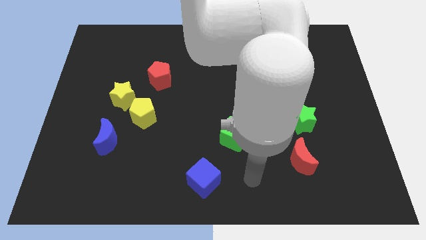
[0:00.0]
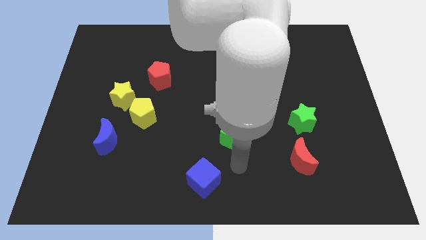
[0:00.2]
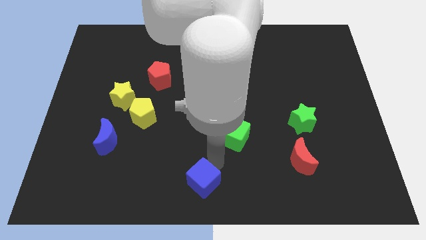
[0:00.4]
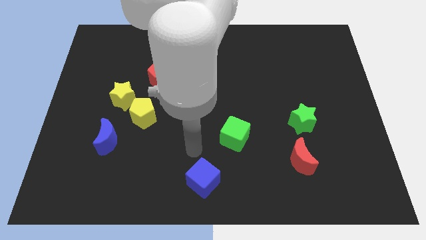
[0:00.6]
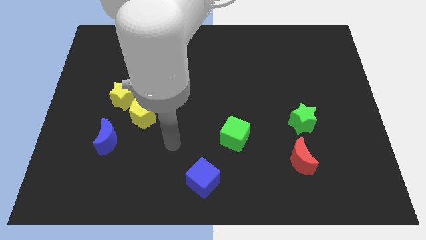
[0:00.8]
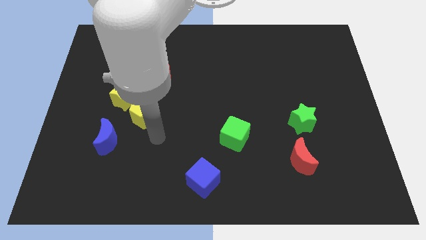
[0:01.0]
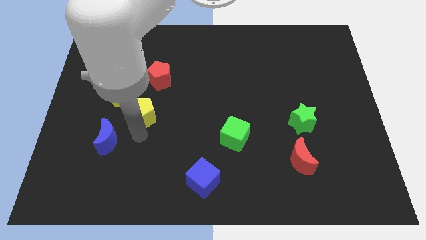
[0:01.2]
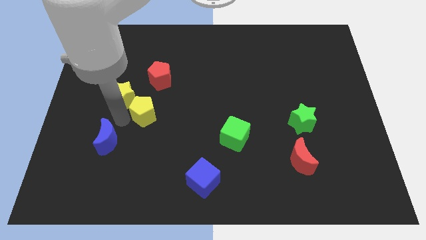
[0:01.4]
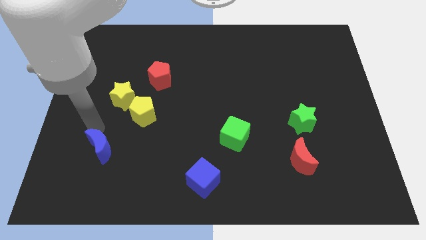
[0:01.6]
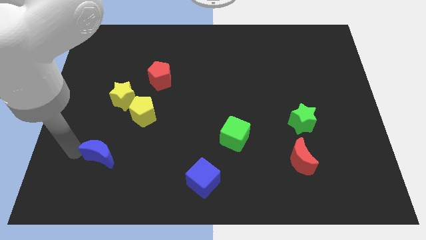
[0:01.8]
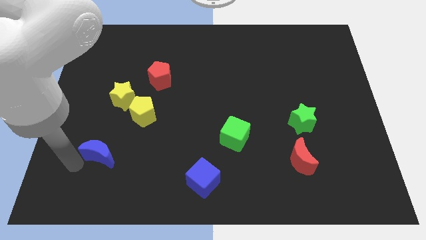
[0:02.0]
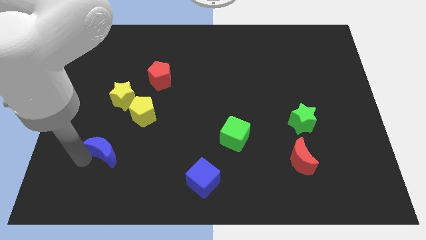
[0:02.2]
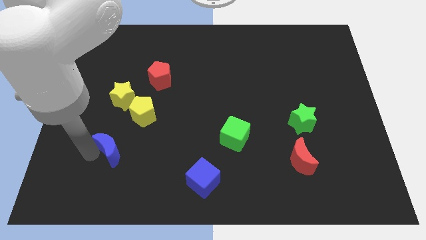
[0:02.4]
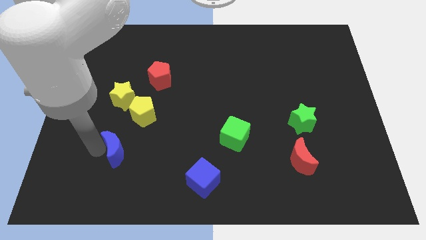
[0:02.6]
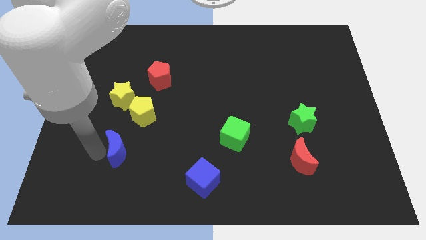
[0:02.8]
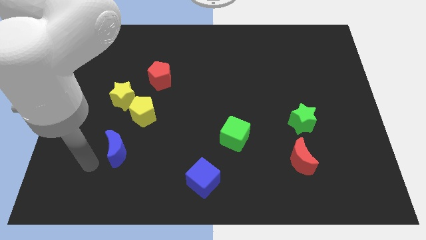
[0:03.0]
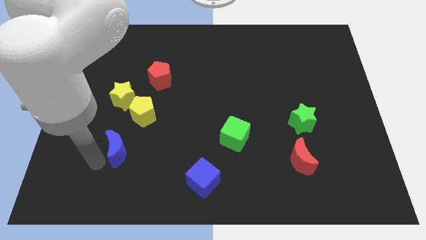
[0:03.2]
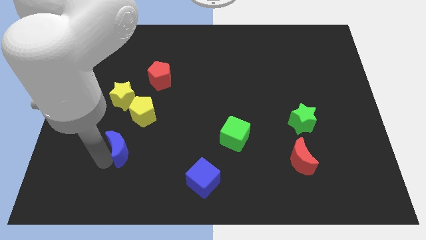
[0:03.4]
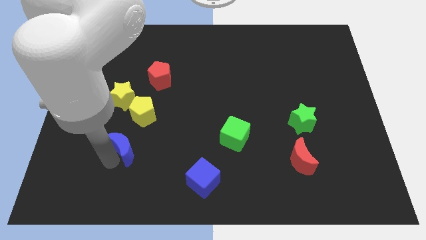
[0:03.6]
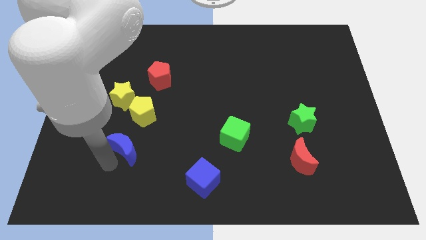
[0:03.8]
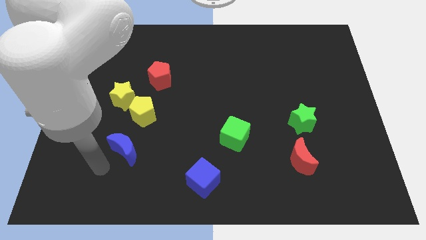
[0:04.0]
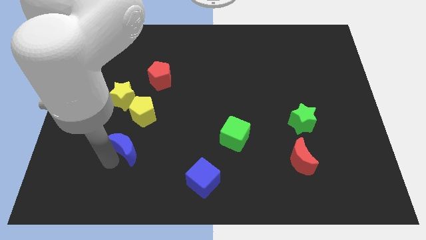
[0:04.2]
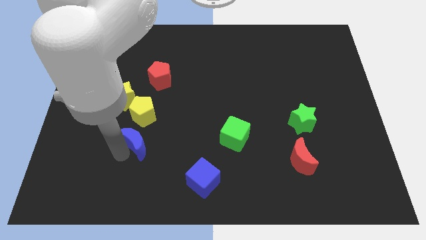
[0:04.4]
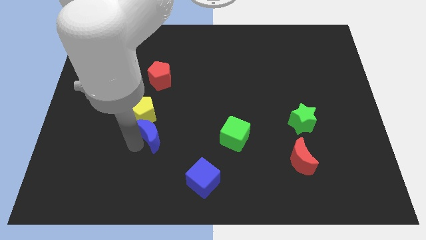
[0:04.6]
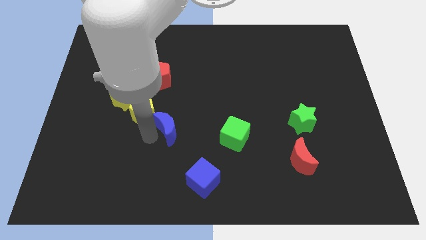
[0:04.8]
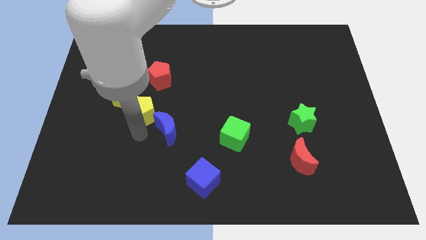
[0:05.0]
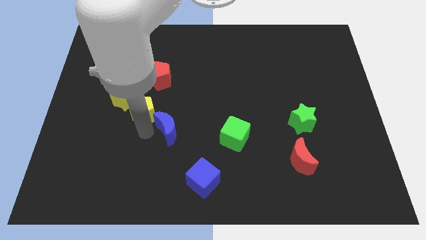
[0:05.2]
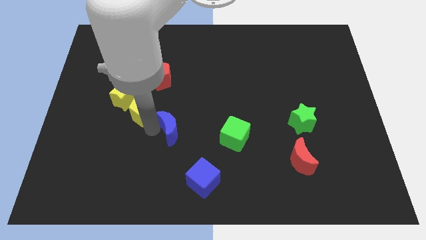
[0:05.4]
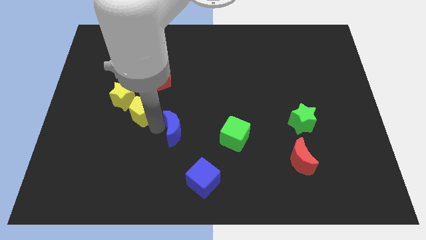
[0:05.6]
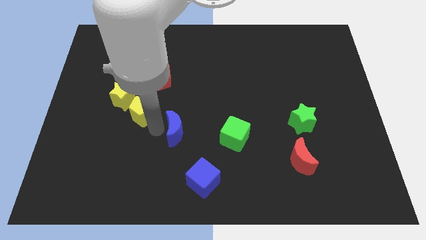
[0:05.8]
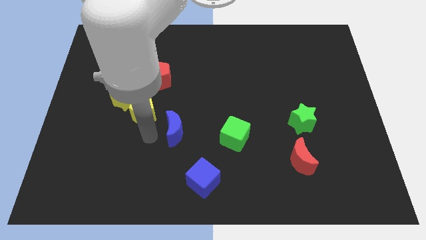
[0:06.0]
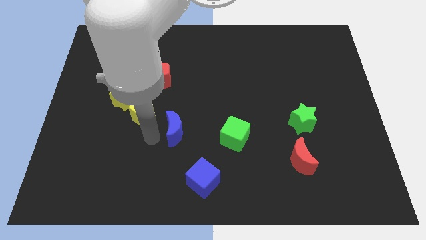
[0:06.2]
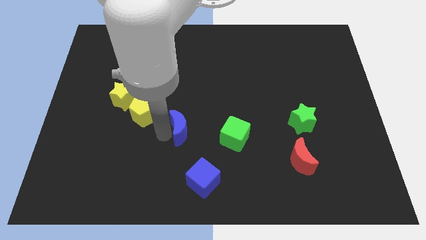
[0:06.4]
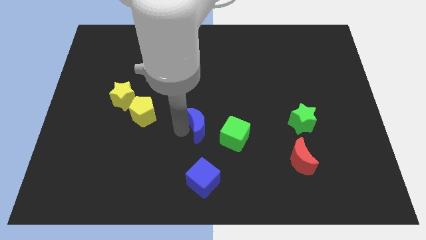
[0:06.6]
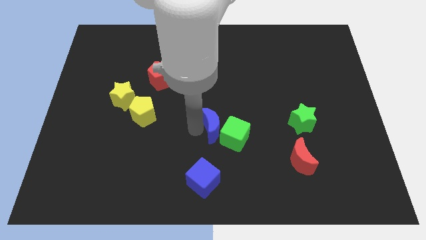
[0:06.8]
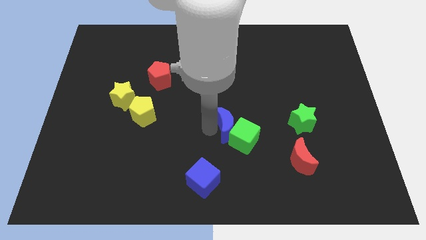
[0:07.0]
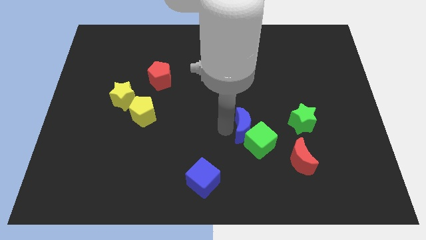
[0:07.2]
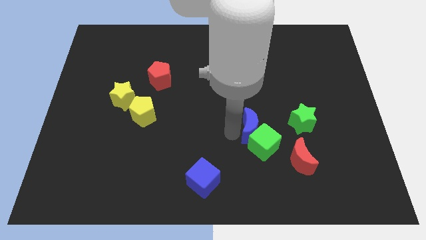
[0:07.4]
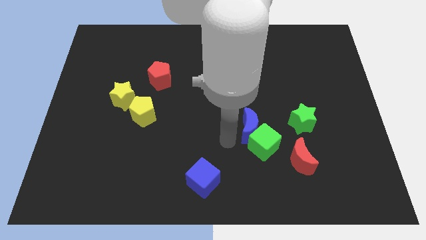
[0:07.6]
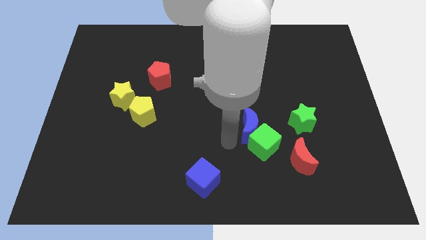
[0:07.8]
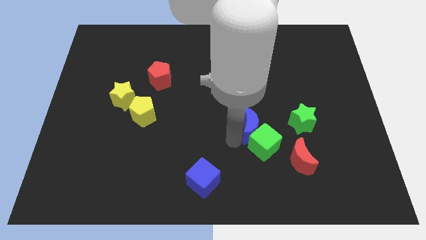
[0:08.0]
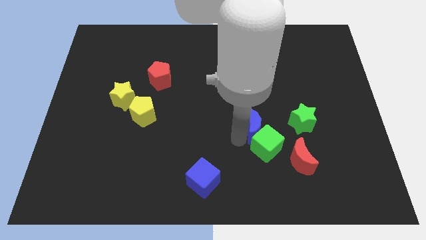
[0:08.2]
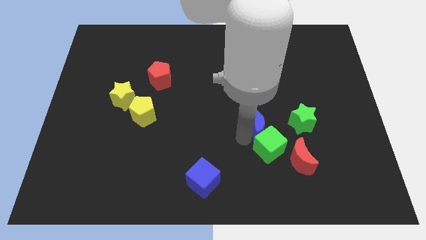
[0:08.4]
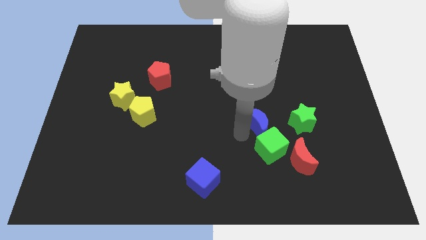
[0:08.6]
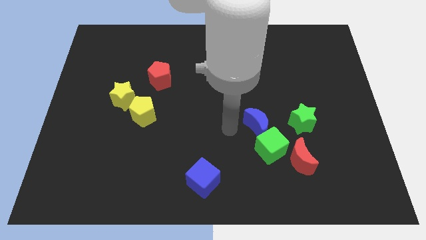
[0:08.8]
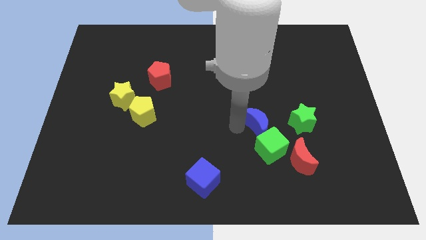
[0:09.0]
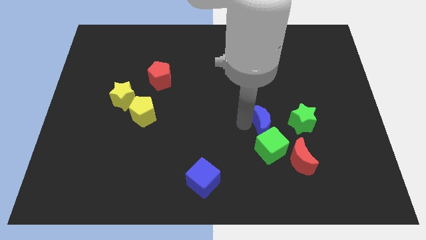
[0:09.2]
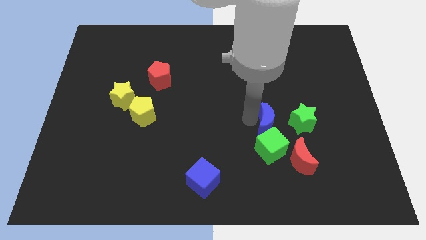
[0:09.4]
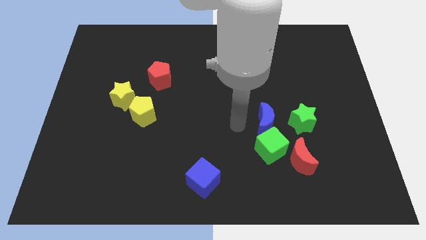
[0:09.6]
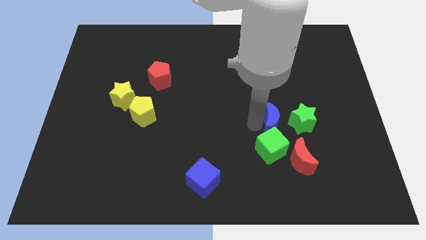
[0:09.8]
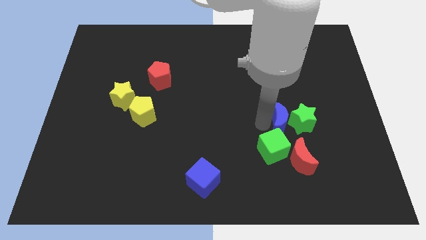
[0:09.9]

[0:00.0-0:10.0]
put the blue moon towards the green star

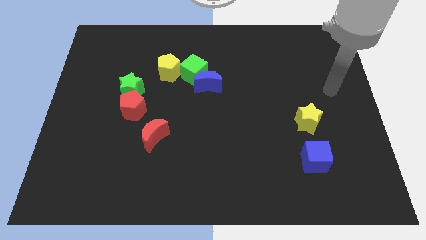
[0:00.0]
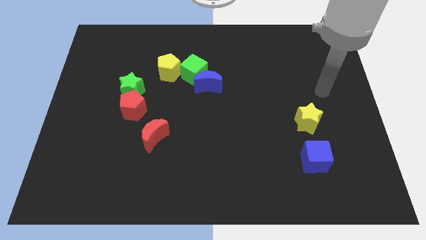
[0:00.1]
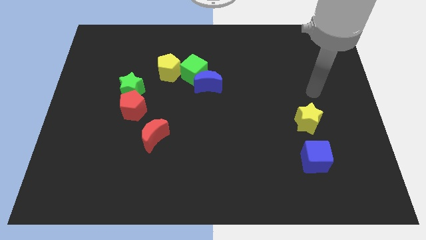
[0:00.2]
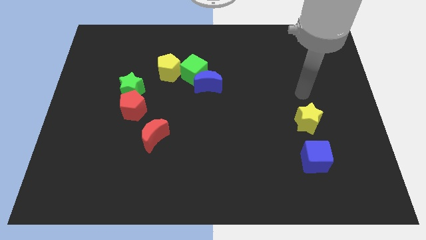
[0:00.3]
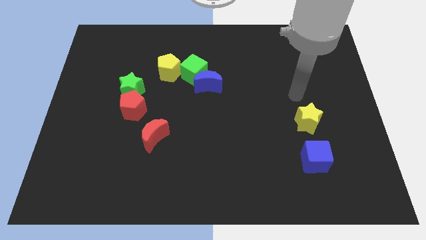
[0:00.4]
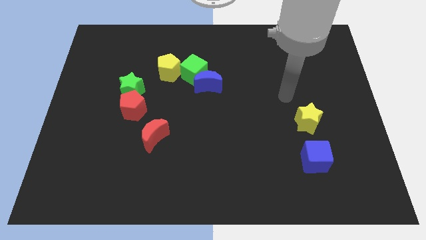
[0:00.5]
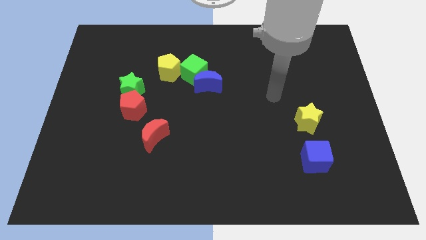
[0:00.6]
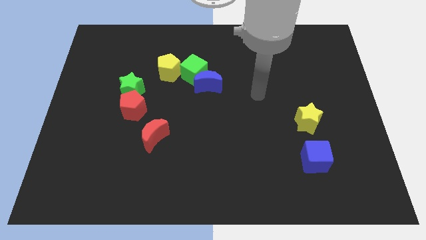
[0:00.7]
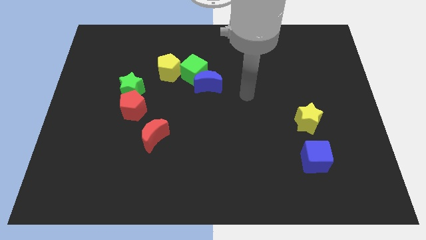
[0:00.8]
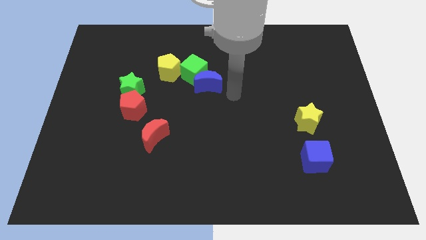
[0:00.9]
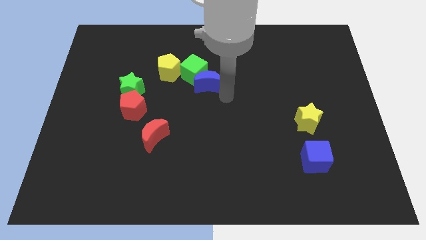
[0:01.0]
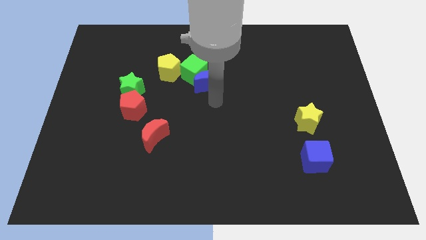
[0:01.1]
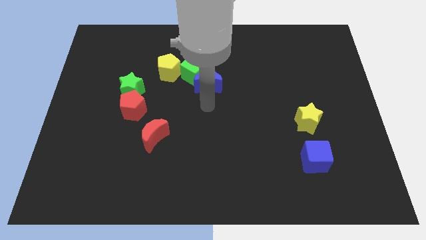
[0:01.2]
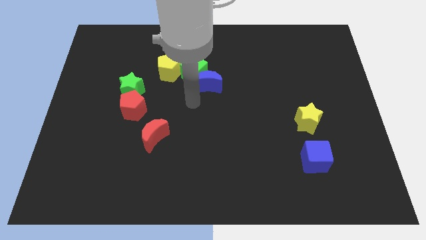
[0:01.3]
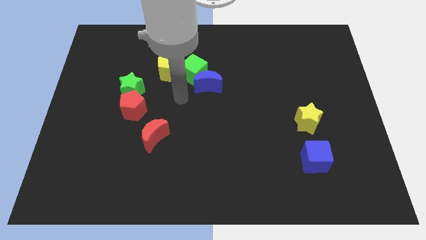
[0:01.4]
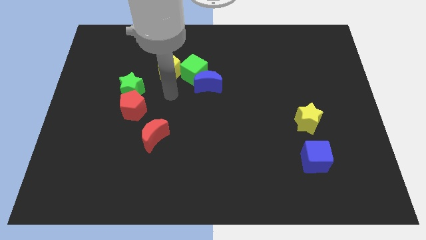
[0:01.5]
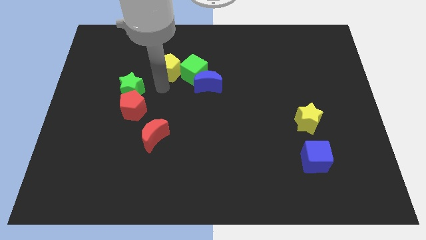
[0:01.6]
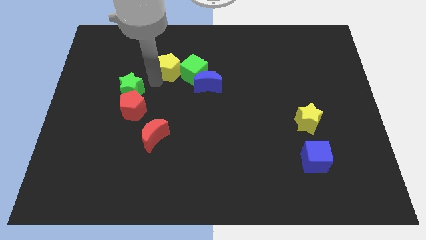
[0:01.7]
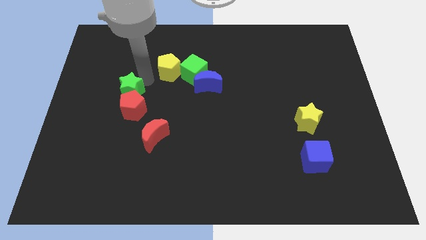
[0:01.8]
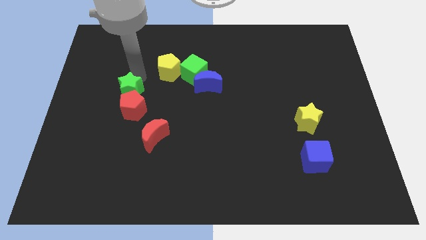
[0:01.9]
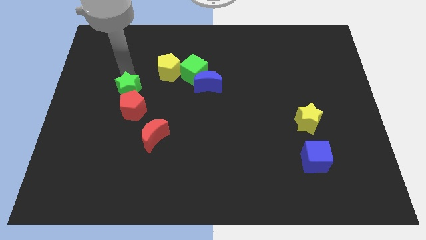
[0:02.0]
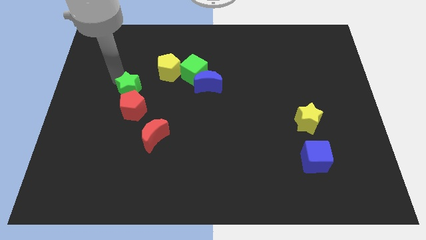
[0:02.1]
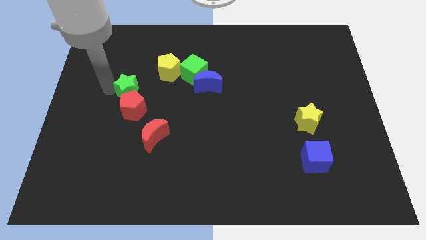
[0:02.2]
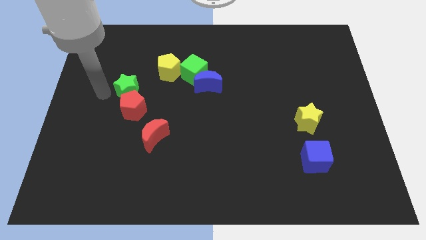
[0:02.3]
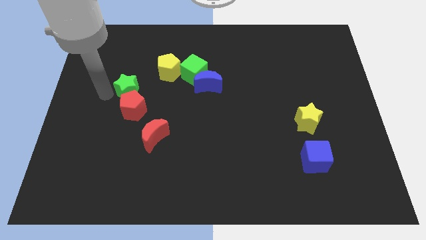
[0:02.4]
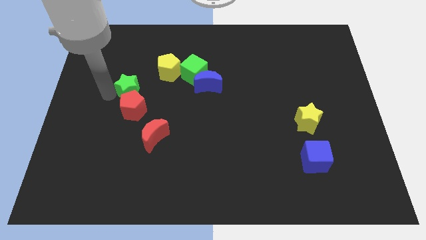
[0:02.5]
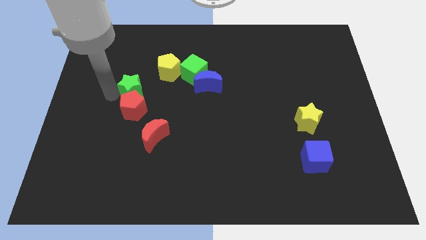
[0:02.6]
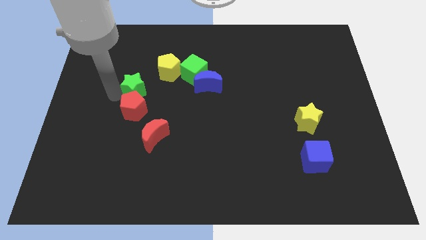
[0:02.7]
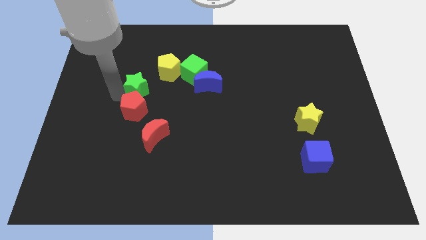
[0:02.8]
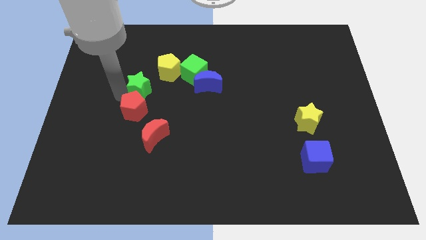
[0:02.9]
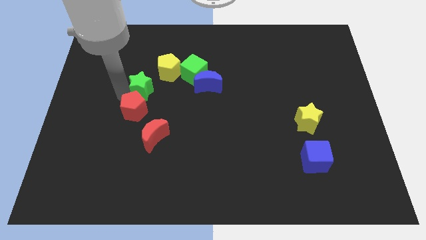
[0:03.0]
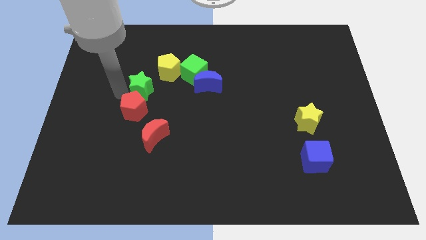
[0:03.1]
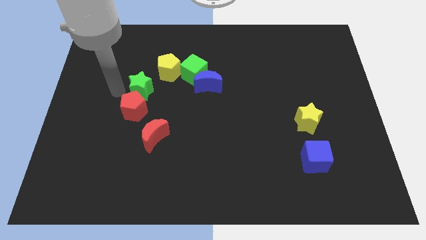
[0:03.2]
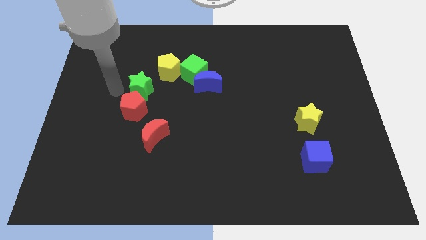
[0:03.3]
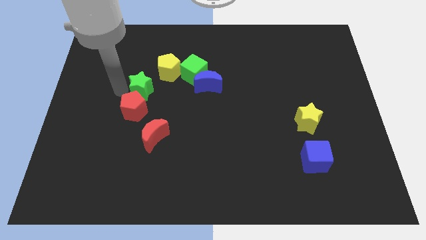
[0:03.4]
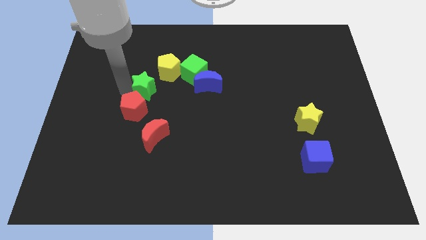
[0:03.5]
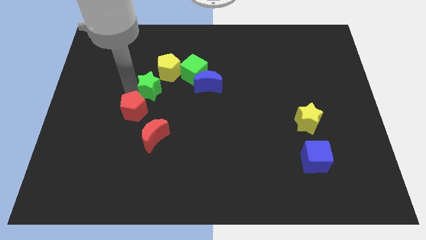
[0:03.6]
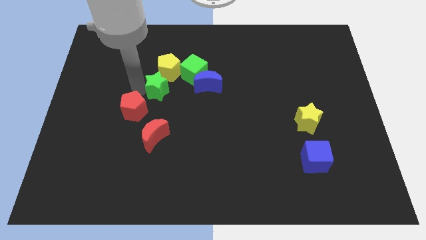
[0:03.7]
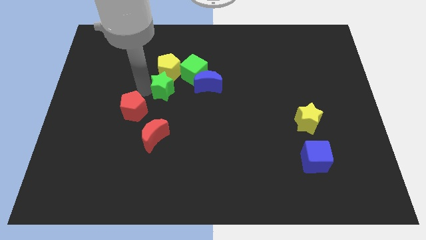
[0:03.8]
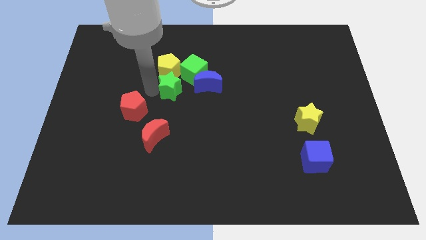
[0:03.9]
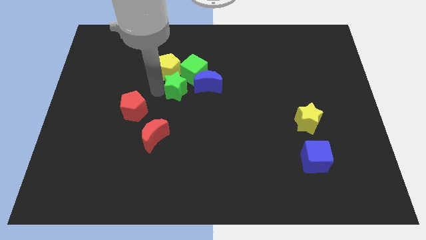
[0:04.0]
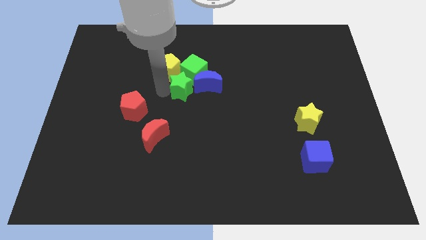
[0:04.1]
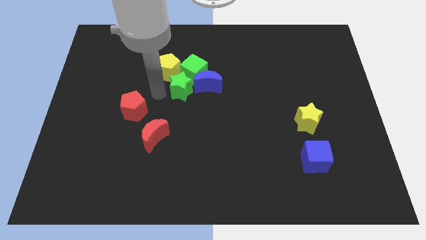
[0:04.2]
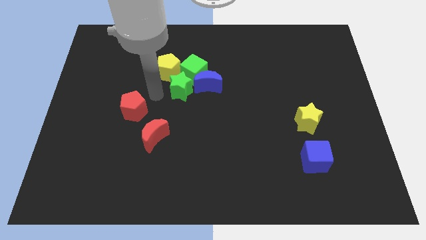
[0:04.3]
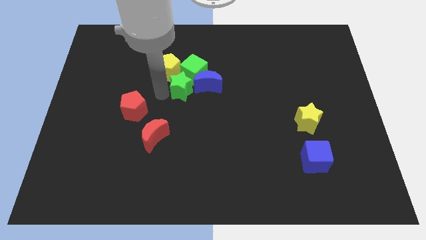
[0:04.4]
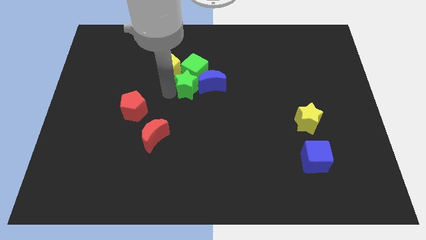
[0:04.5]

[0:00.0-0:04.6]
push the green star close to the blue moon
